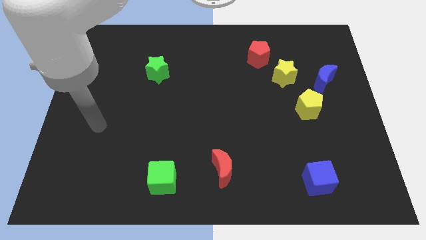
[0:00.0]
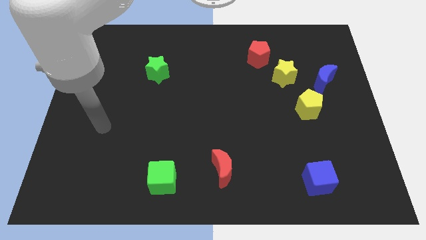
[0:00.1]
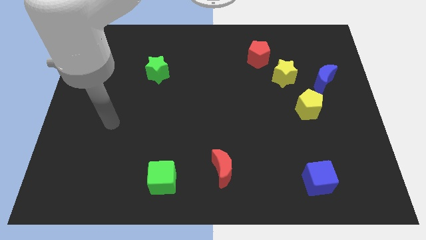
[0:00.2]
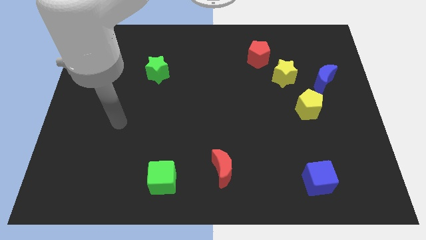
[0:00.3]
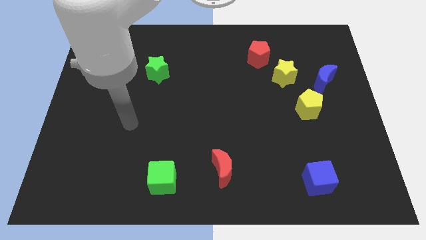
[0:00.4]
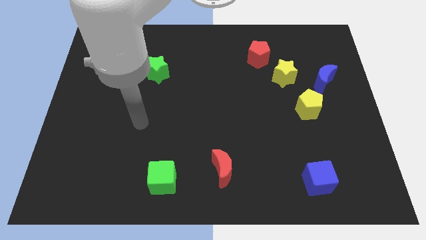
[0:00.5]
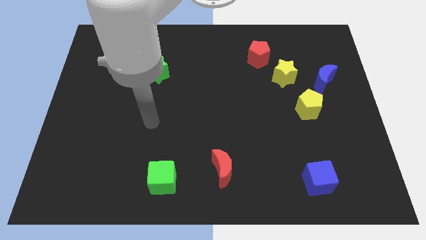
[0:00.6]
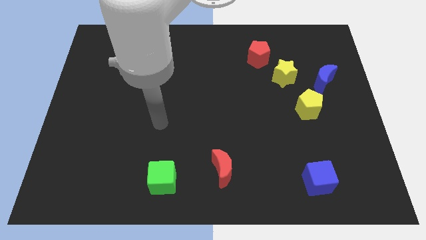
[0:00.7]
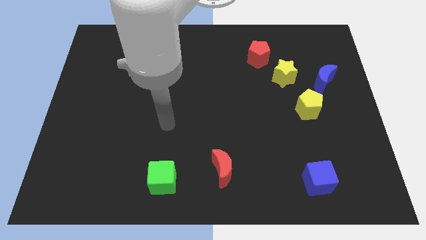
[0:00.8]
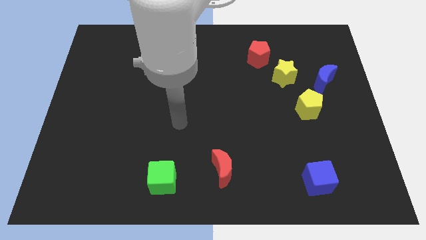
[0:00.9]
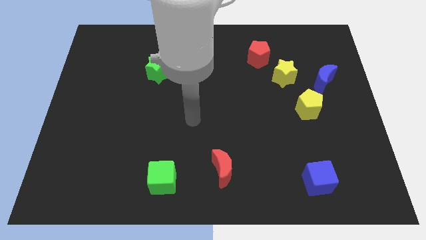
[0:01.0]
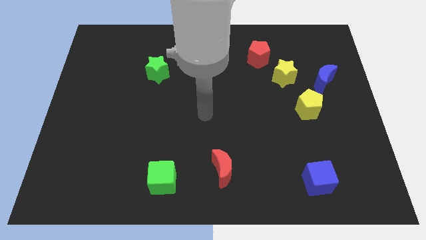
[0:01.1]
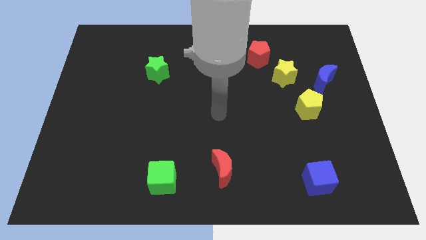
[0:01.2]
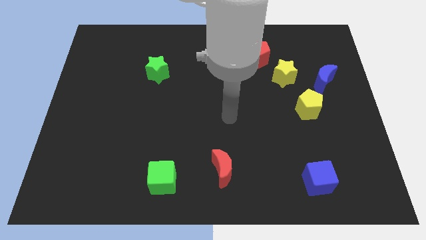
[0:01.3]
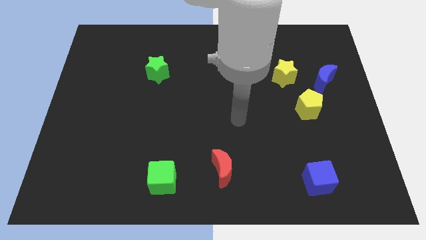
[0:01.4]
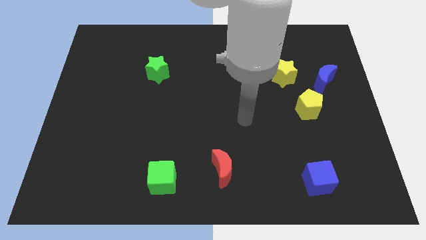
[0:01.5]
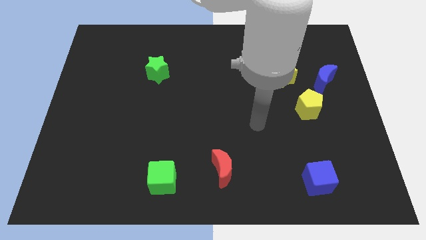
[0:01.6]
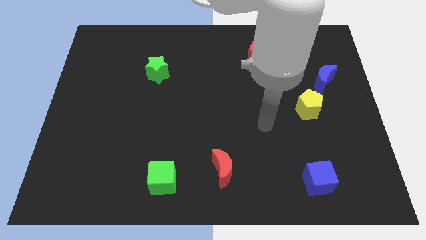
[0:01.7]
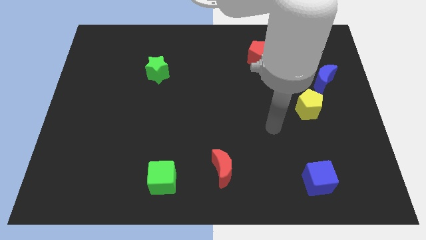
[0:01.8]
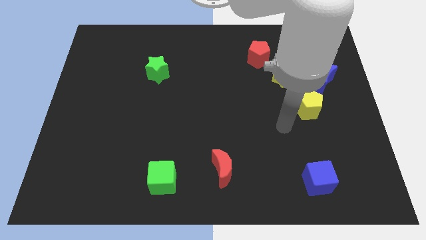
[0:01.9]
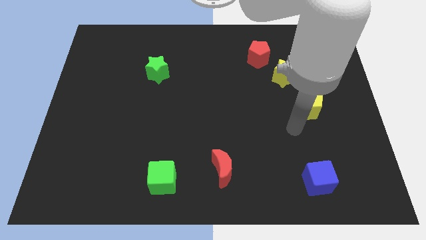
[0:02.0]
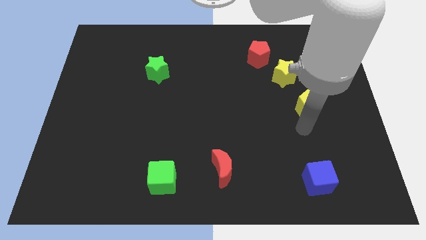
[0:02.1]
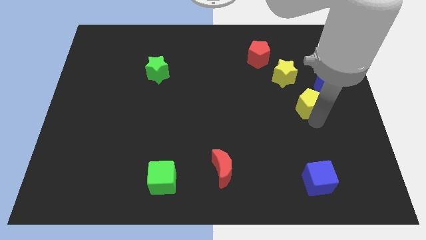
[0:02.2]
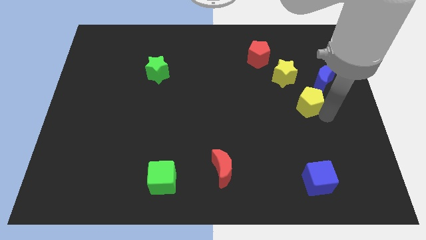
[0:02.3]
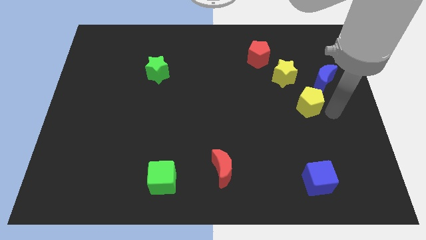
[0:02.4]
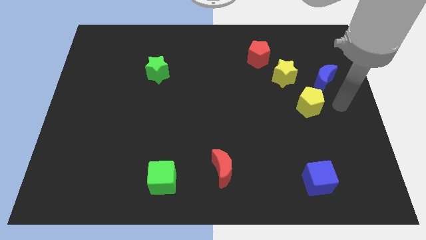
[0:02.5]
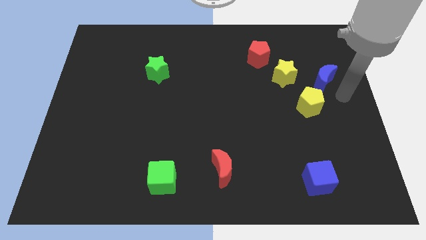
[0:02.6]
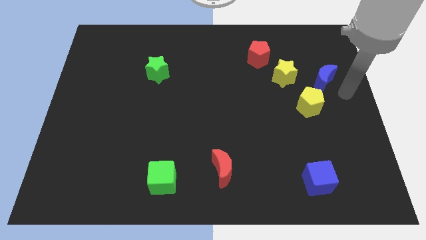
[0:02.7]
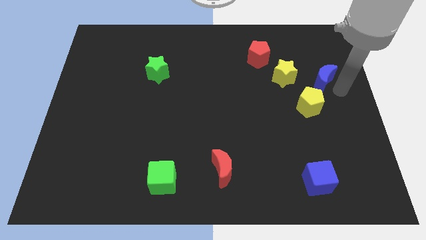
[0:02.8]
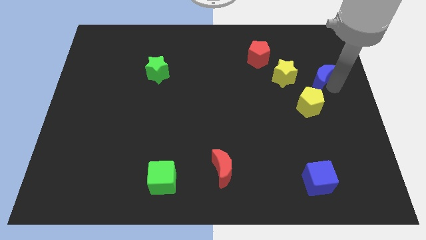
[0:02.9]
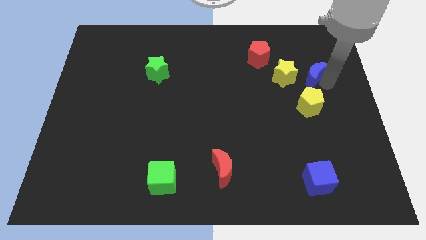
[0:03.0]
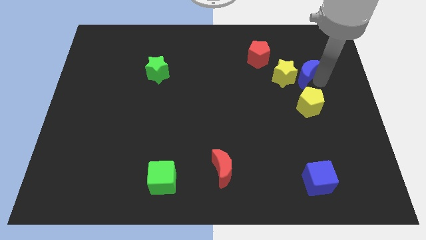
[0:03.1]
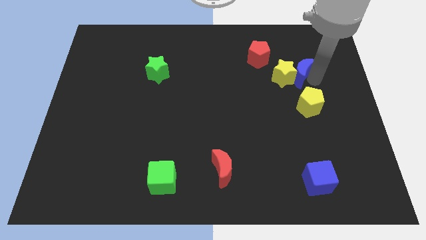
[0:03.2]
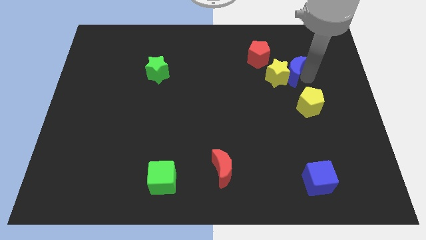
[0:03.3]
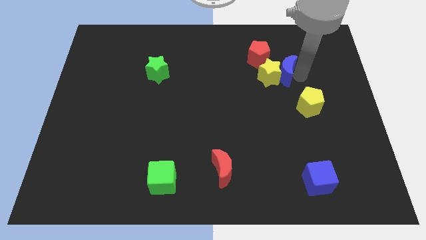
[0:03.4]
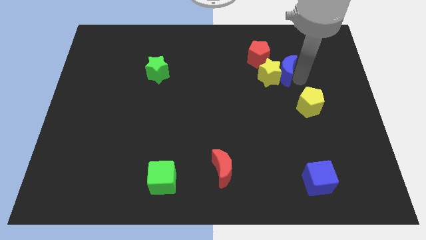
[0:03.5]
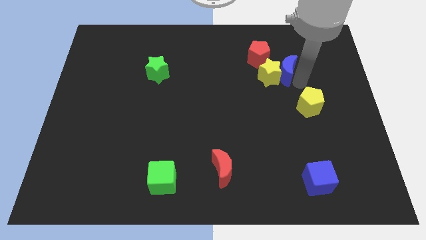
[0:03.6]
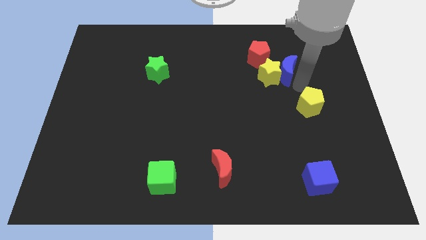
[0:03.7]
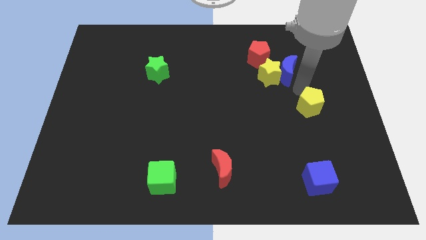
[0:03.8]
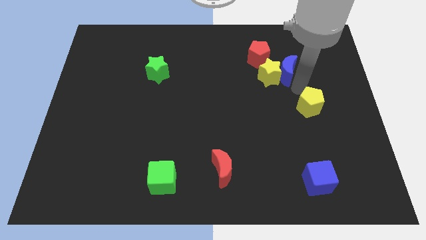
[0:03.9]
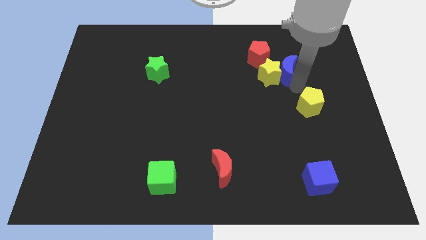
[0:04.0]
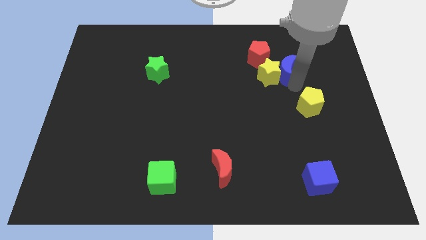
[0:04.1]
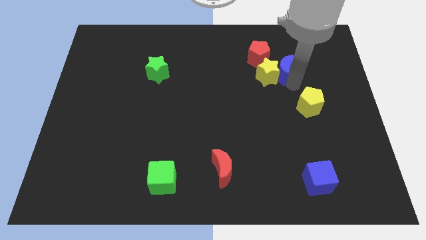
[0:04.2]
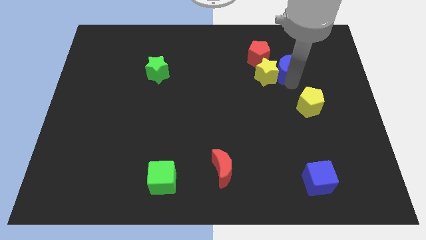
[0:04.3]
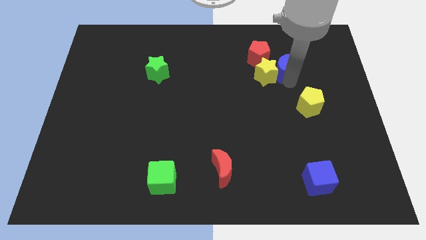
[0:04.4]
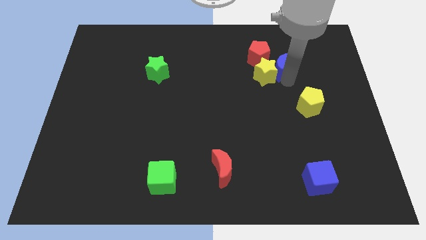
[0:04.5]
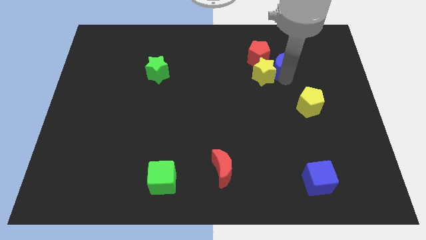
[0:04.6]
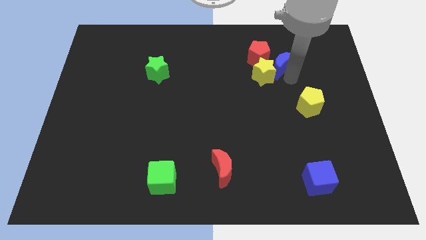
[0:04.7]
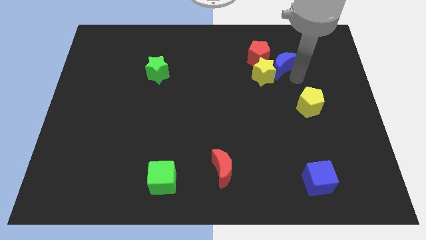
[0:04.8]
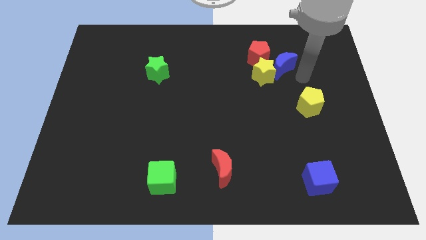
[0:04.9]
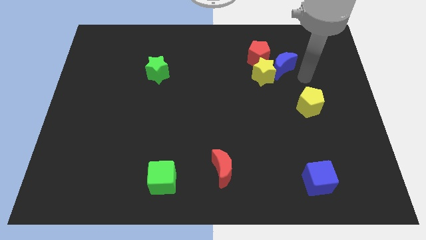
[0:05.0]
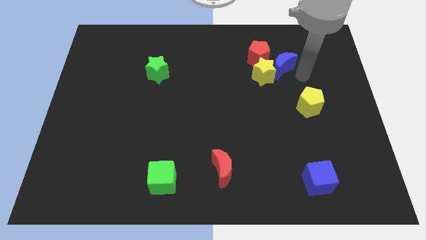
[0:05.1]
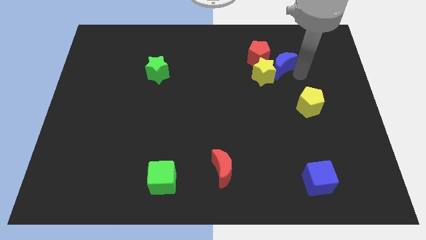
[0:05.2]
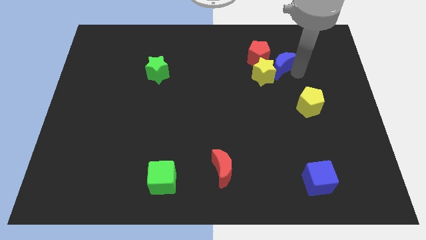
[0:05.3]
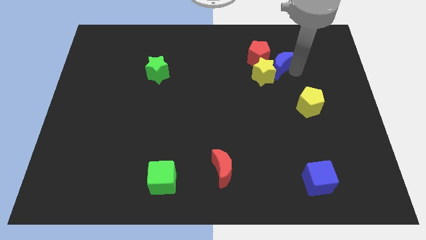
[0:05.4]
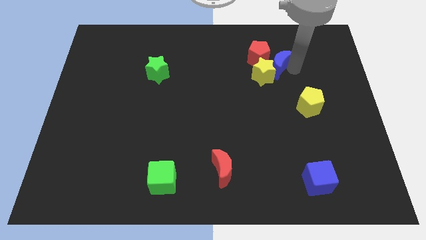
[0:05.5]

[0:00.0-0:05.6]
push the blue moon to the red pentagon

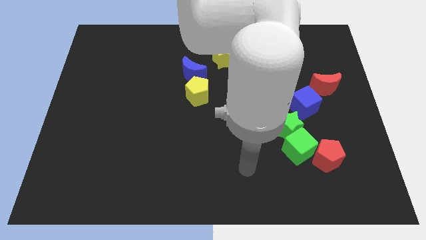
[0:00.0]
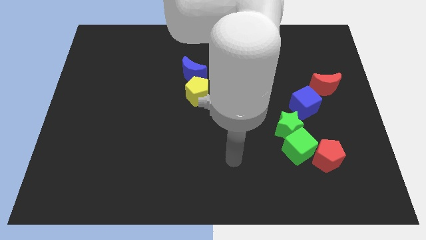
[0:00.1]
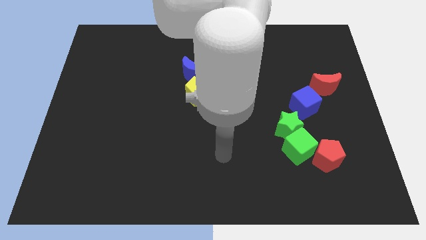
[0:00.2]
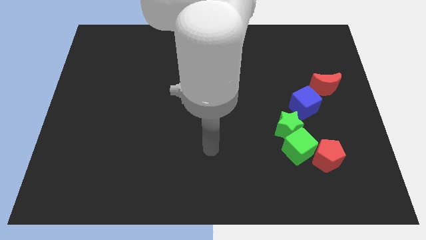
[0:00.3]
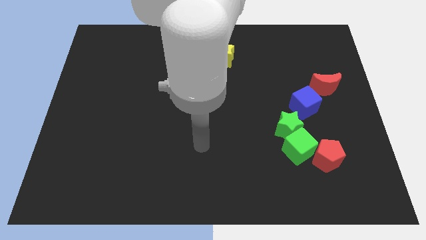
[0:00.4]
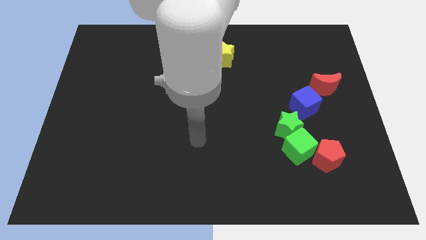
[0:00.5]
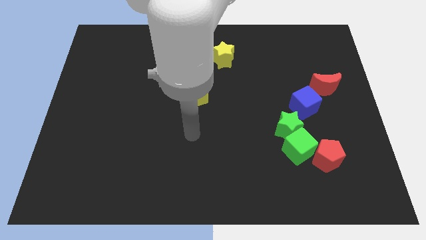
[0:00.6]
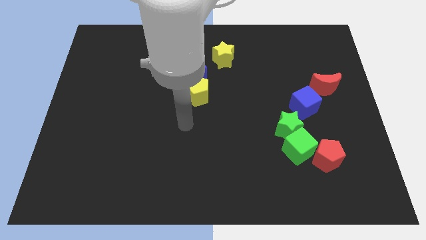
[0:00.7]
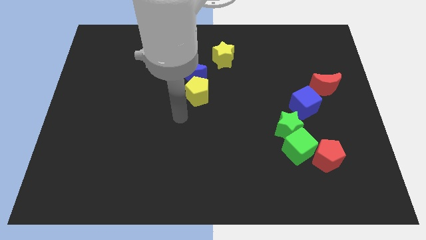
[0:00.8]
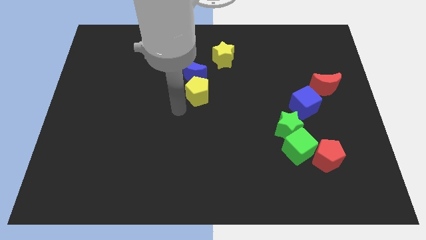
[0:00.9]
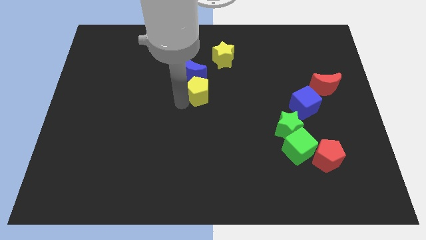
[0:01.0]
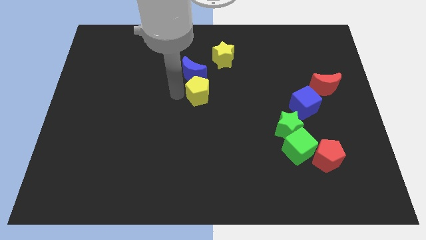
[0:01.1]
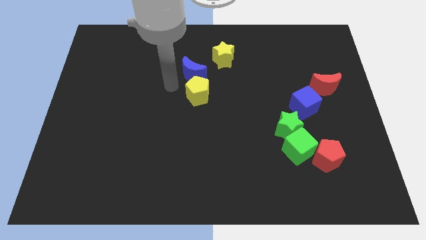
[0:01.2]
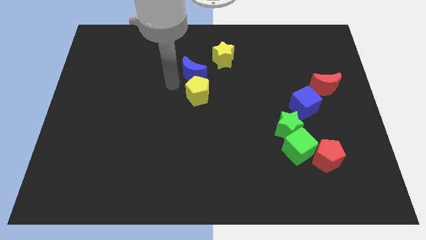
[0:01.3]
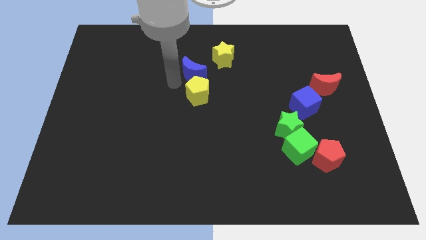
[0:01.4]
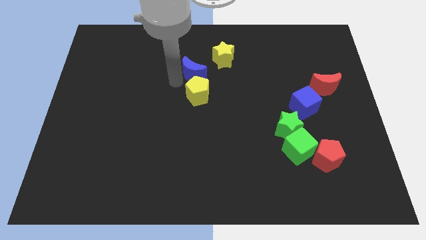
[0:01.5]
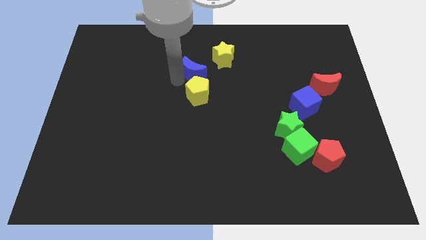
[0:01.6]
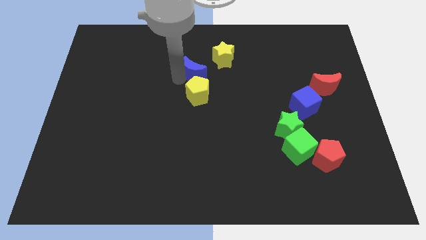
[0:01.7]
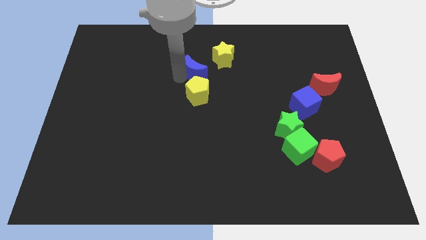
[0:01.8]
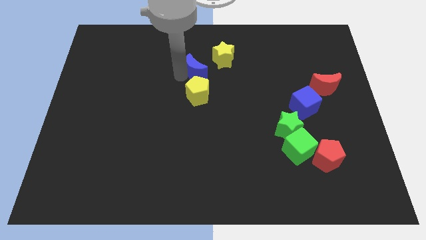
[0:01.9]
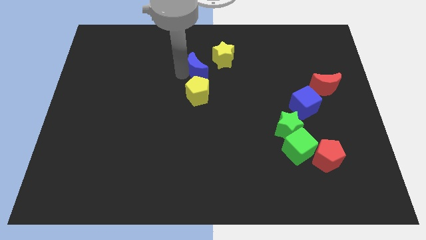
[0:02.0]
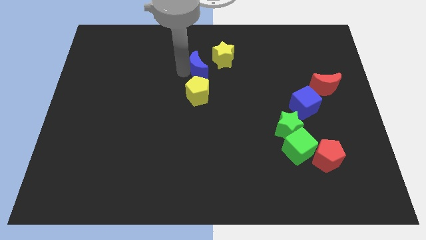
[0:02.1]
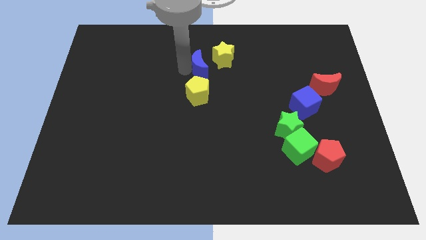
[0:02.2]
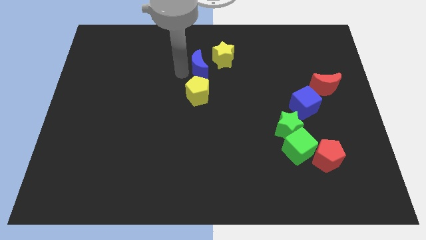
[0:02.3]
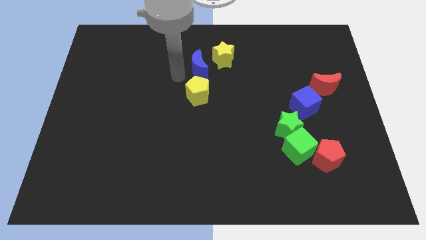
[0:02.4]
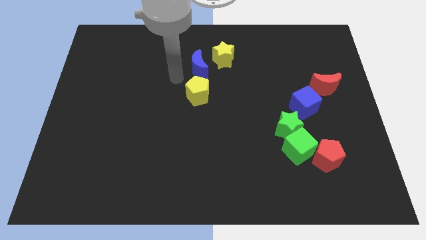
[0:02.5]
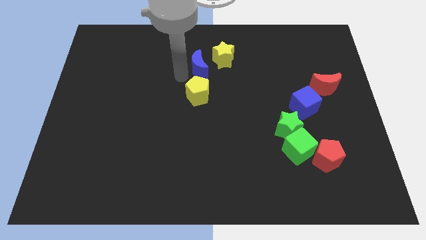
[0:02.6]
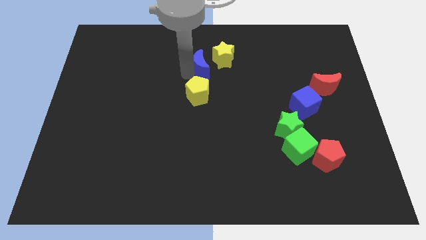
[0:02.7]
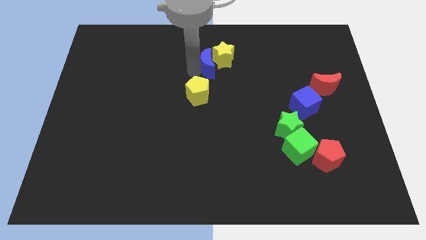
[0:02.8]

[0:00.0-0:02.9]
put the blue moon close to the yellow star
